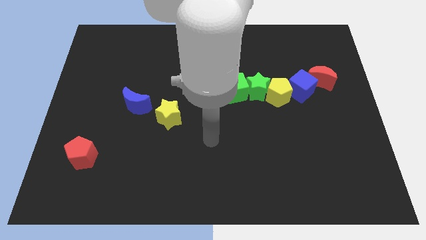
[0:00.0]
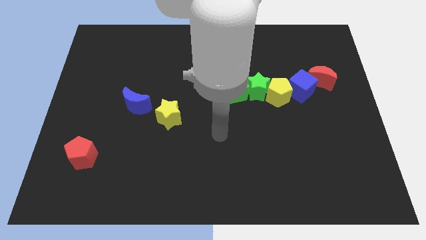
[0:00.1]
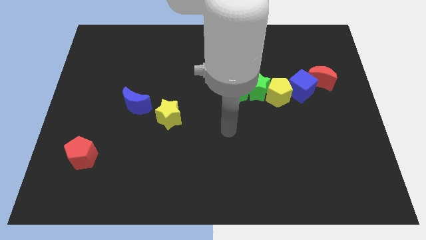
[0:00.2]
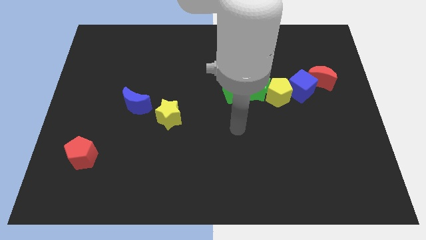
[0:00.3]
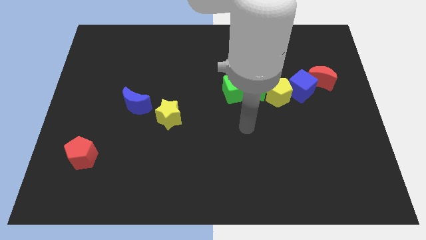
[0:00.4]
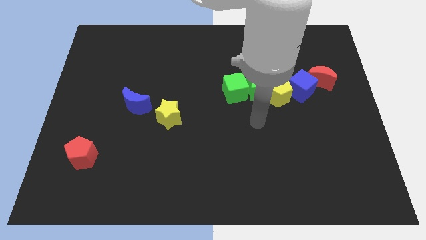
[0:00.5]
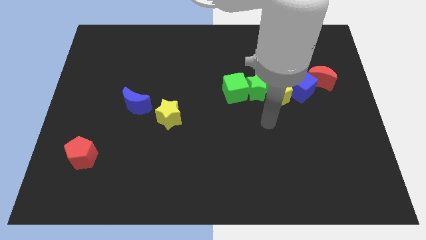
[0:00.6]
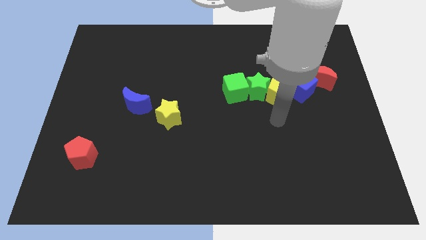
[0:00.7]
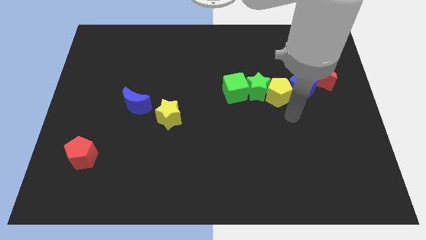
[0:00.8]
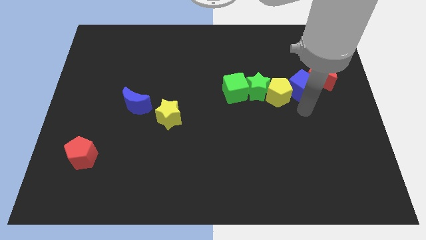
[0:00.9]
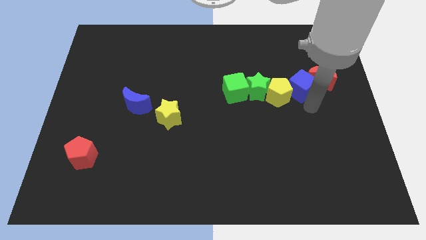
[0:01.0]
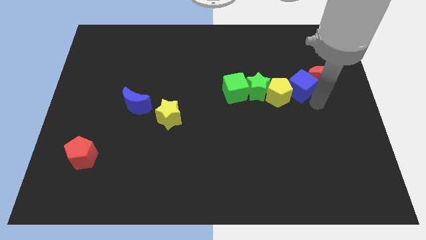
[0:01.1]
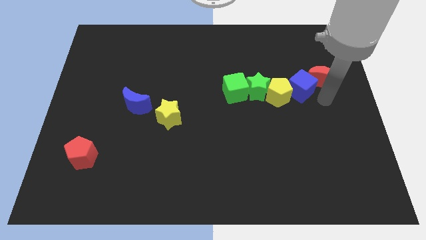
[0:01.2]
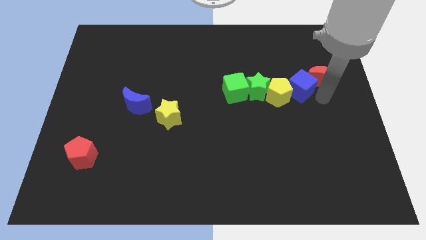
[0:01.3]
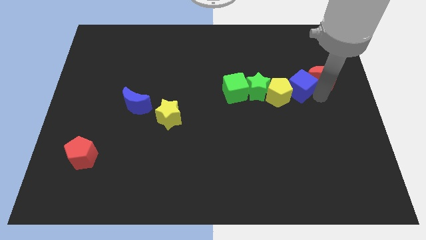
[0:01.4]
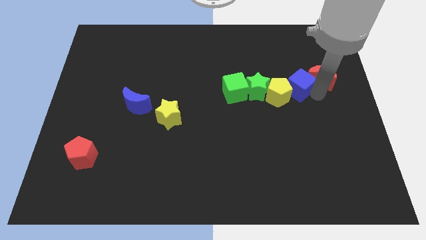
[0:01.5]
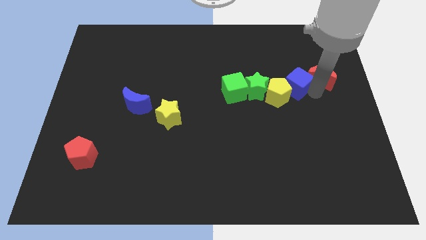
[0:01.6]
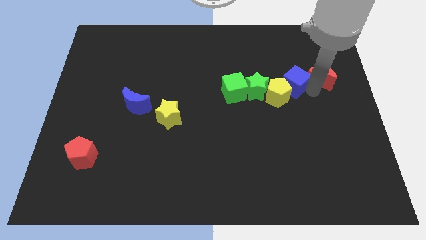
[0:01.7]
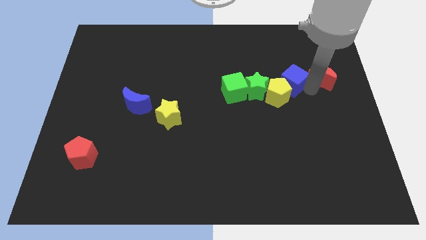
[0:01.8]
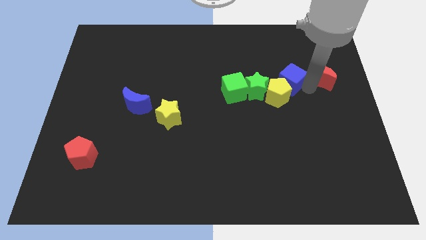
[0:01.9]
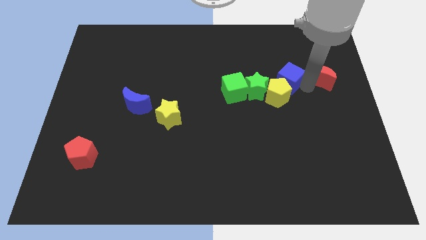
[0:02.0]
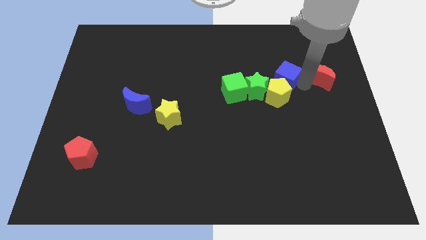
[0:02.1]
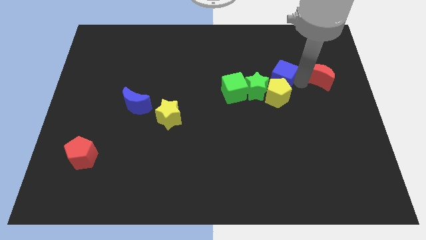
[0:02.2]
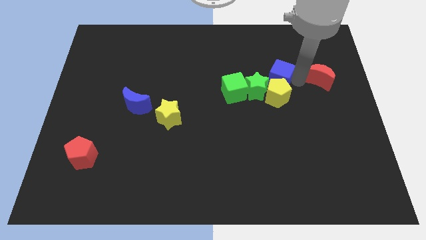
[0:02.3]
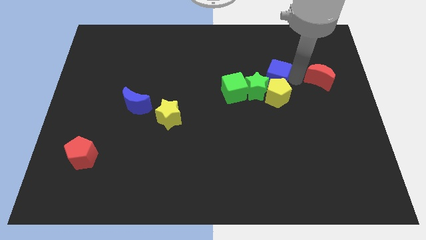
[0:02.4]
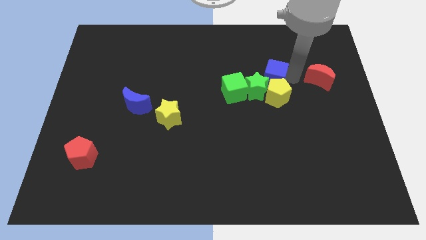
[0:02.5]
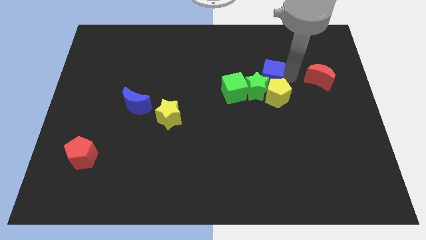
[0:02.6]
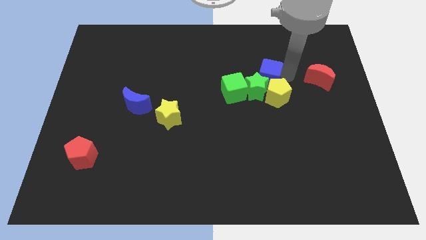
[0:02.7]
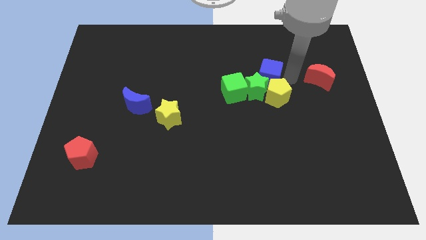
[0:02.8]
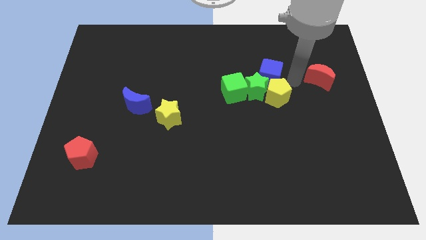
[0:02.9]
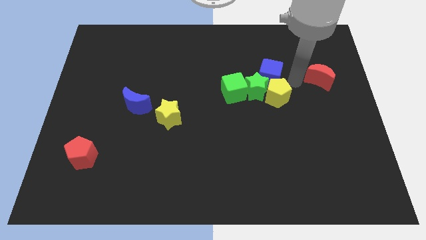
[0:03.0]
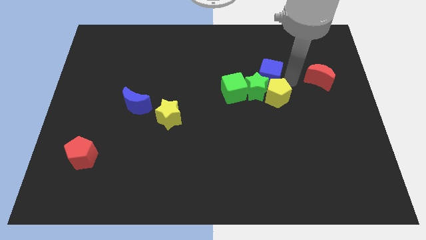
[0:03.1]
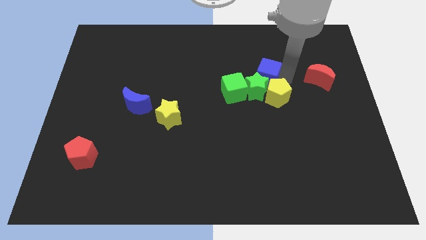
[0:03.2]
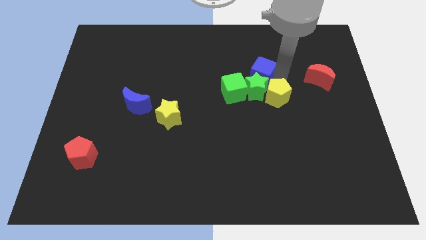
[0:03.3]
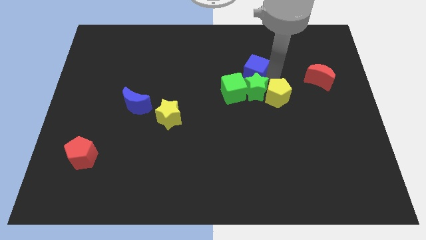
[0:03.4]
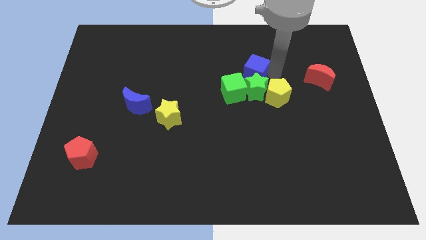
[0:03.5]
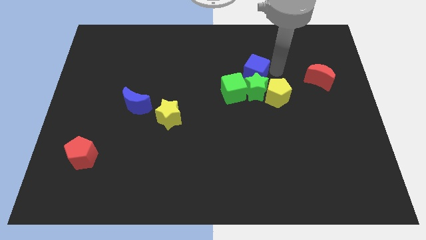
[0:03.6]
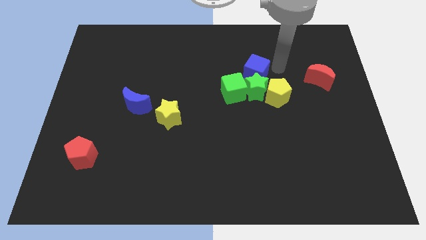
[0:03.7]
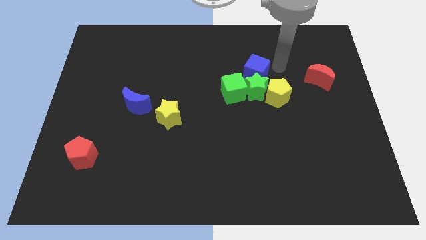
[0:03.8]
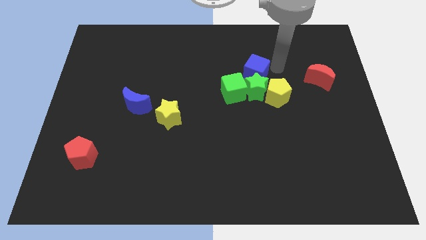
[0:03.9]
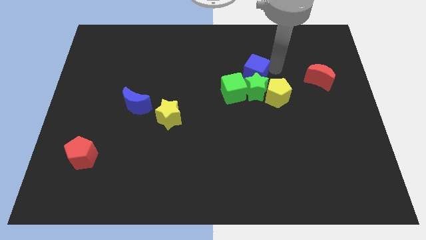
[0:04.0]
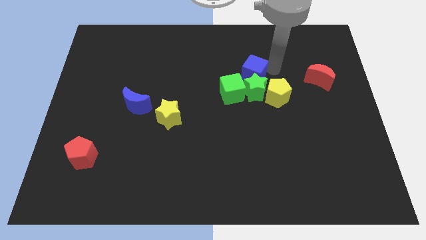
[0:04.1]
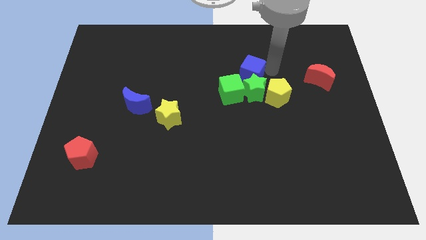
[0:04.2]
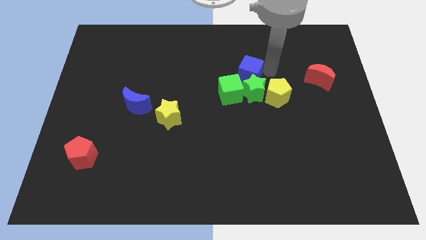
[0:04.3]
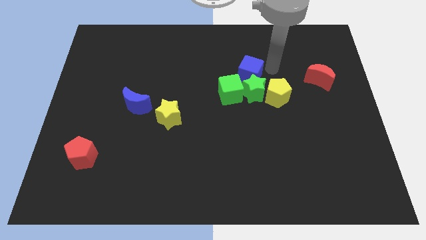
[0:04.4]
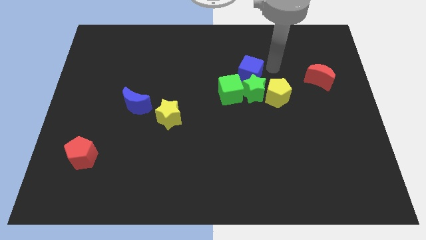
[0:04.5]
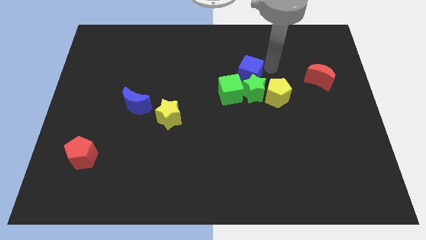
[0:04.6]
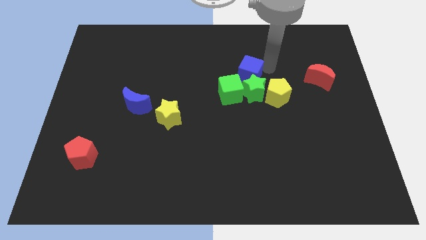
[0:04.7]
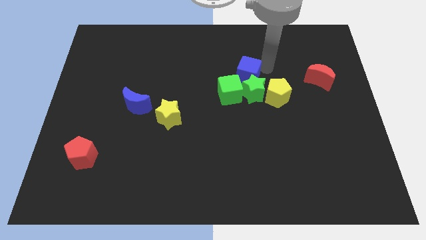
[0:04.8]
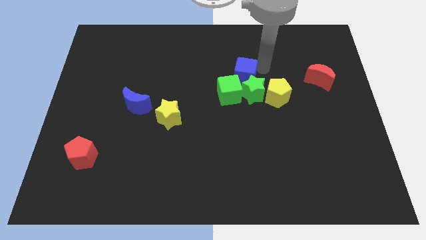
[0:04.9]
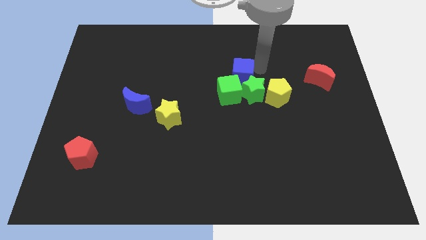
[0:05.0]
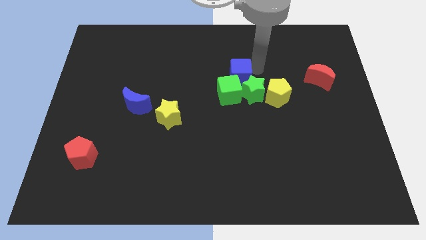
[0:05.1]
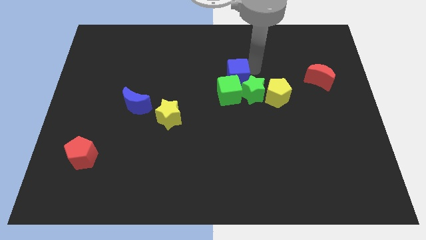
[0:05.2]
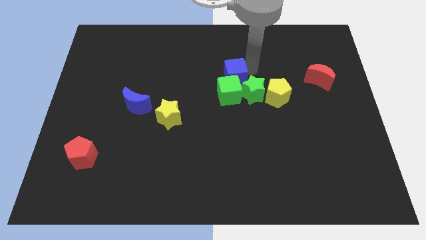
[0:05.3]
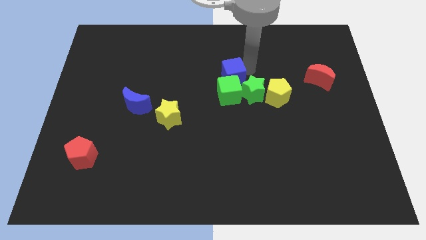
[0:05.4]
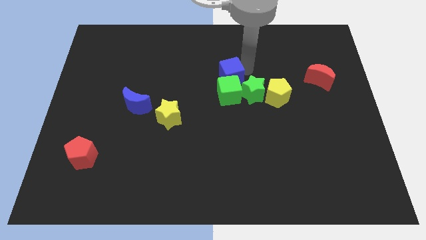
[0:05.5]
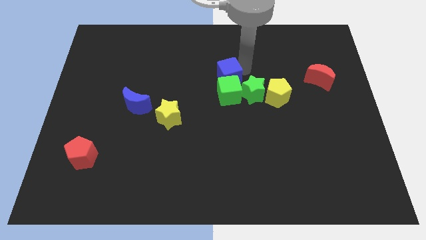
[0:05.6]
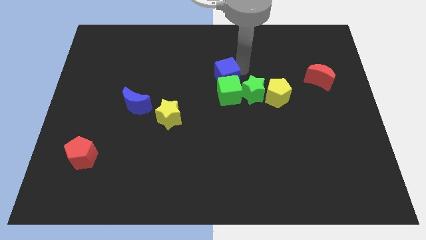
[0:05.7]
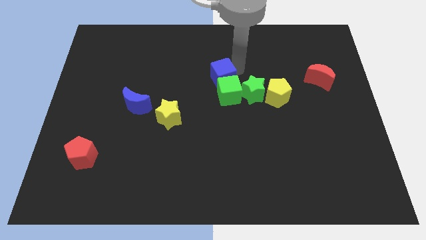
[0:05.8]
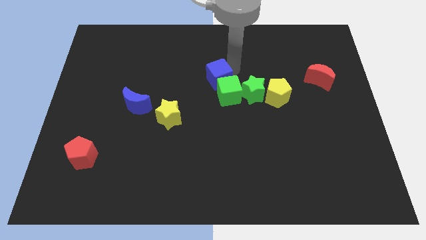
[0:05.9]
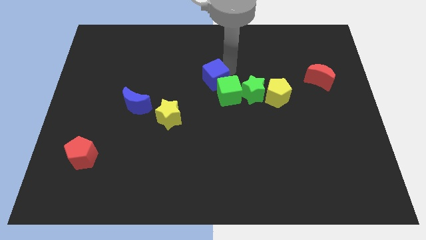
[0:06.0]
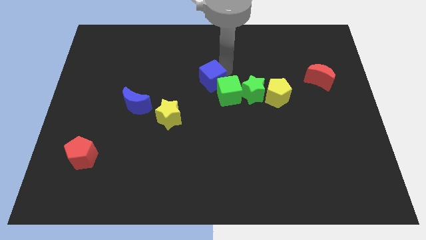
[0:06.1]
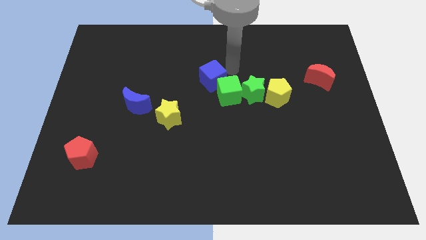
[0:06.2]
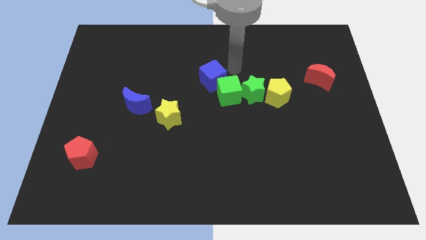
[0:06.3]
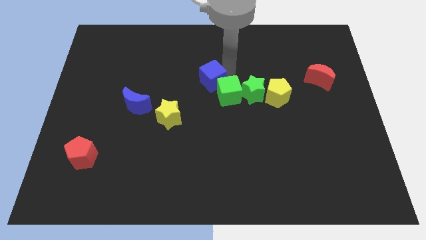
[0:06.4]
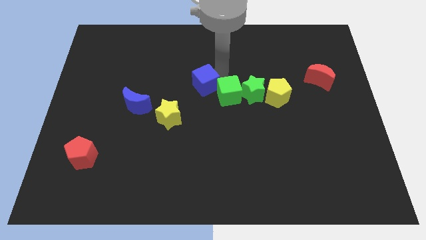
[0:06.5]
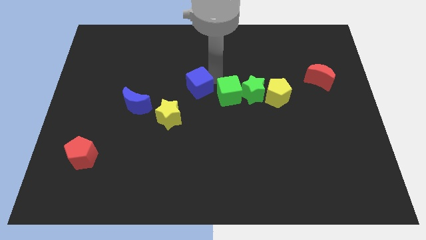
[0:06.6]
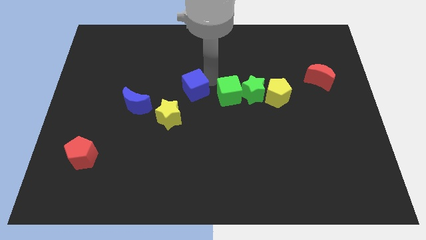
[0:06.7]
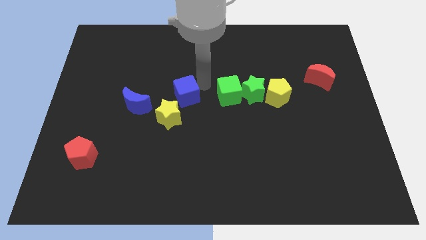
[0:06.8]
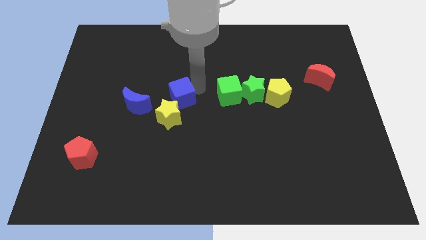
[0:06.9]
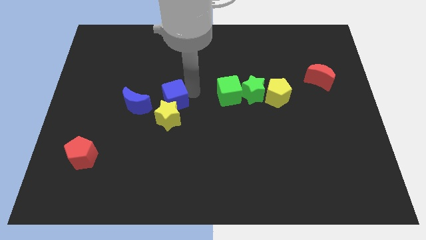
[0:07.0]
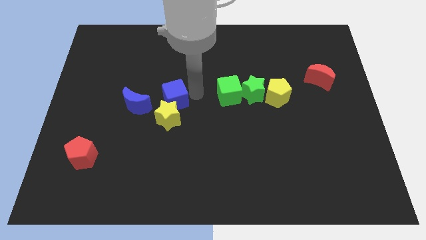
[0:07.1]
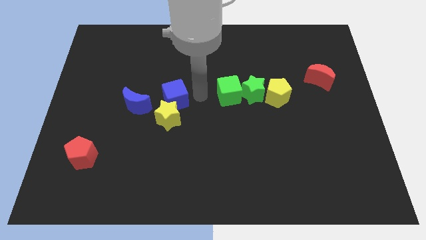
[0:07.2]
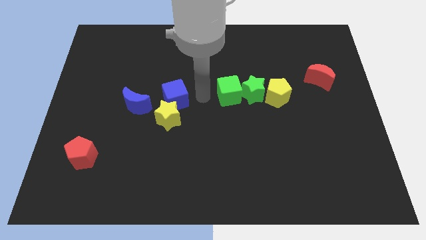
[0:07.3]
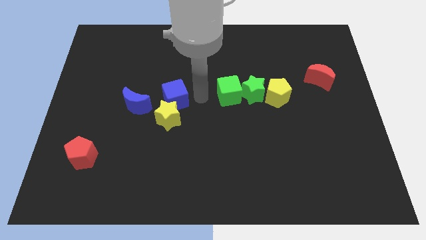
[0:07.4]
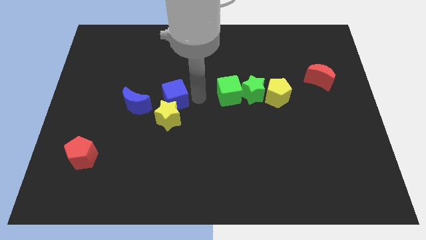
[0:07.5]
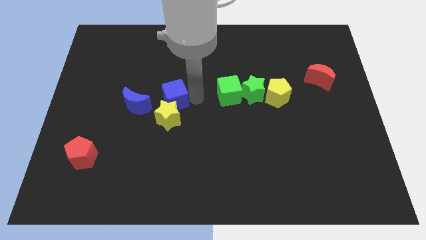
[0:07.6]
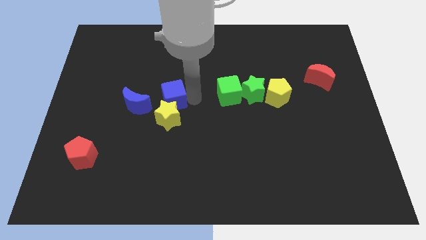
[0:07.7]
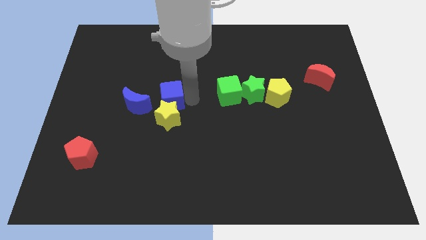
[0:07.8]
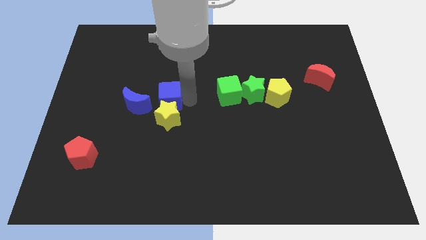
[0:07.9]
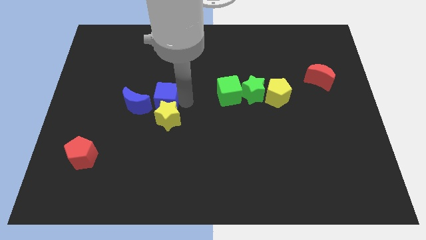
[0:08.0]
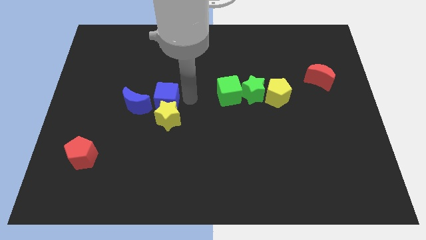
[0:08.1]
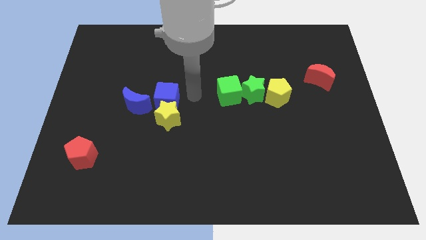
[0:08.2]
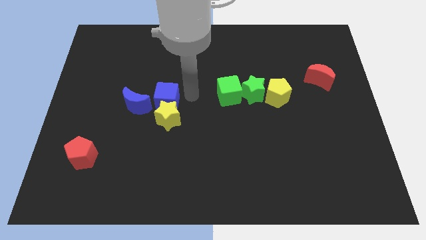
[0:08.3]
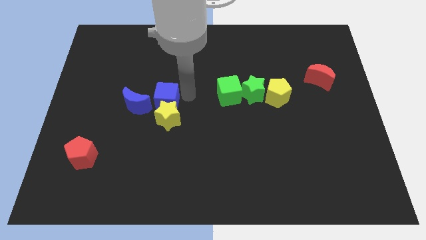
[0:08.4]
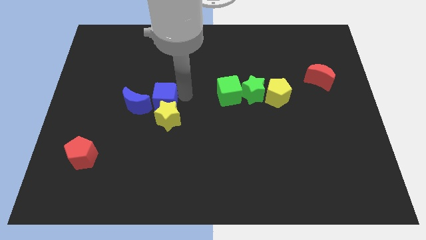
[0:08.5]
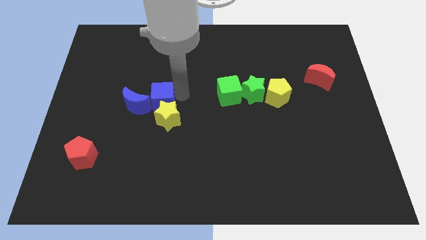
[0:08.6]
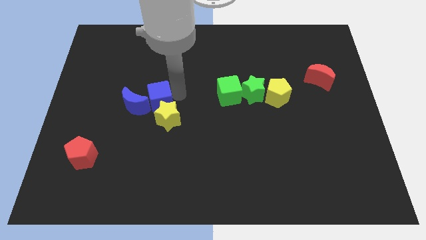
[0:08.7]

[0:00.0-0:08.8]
move the blue cube close to the blue moon
